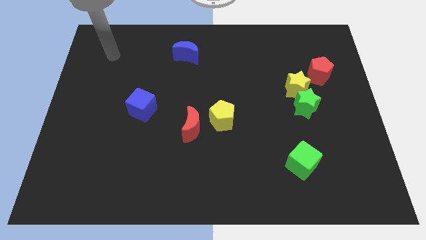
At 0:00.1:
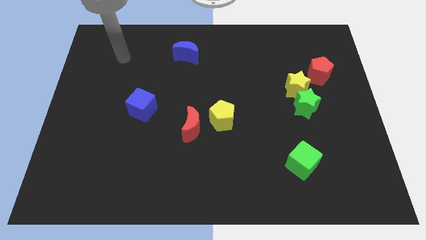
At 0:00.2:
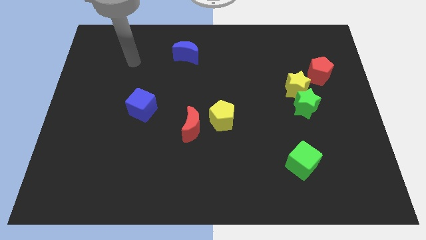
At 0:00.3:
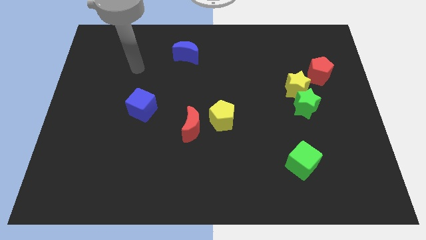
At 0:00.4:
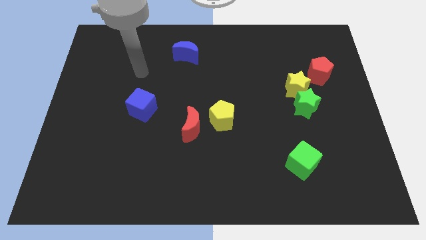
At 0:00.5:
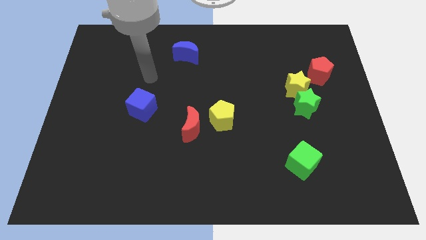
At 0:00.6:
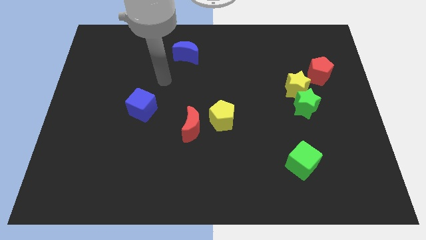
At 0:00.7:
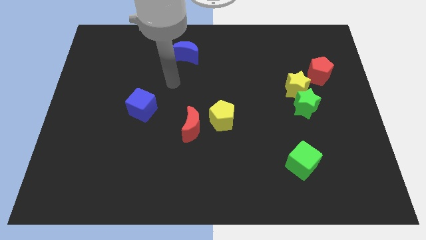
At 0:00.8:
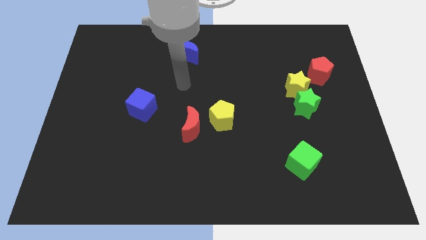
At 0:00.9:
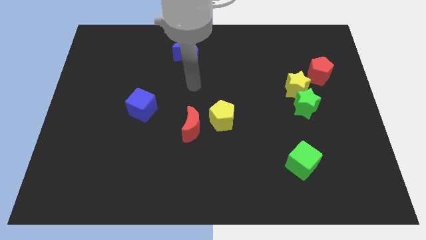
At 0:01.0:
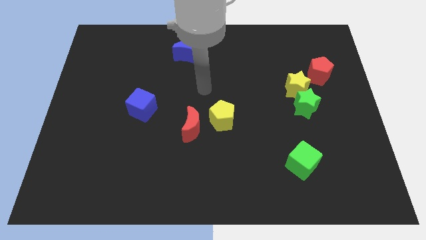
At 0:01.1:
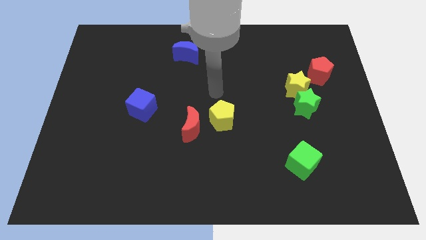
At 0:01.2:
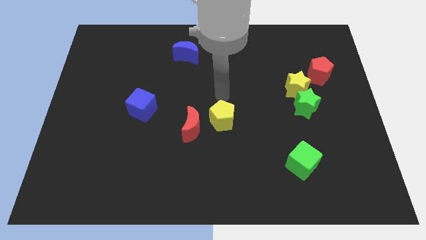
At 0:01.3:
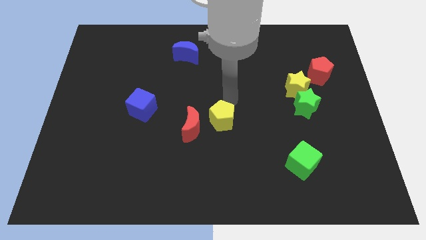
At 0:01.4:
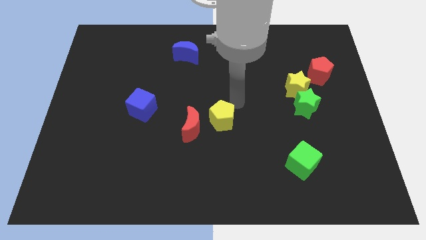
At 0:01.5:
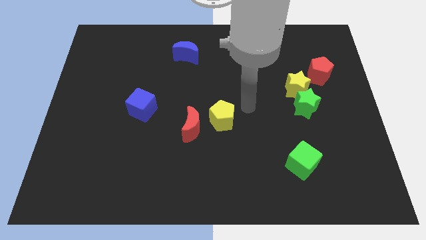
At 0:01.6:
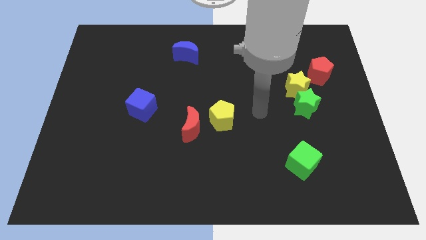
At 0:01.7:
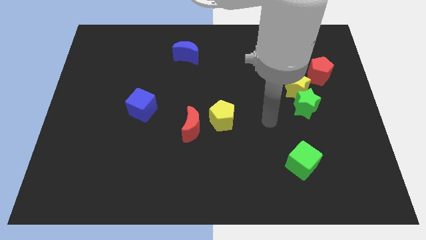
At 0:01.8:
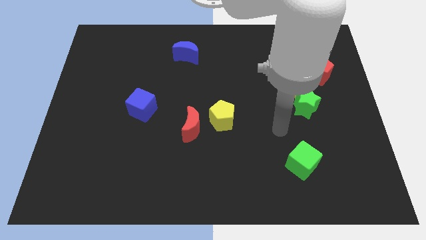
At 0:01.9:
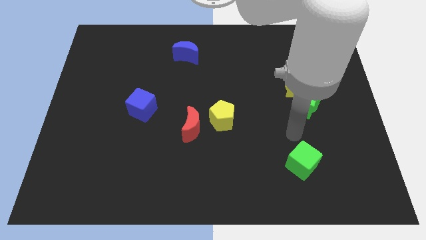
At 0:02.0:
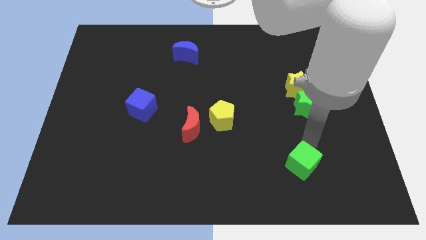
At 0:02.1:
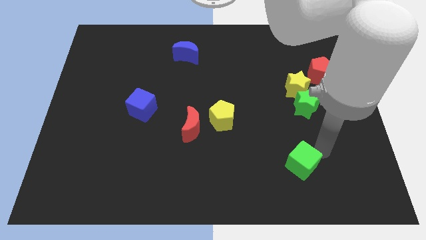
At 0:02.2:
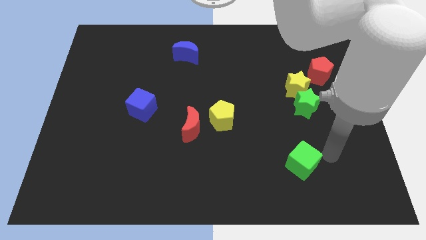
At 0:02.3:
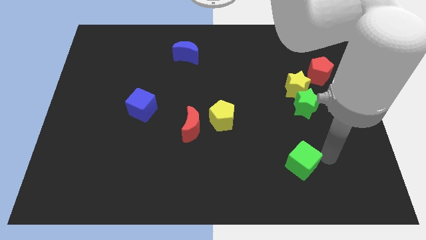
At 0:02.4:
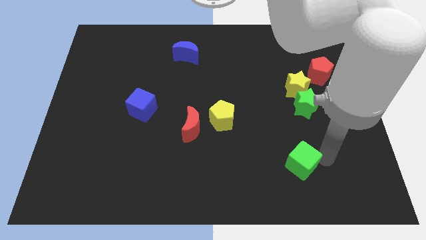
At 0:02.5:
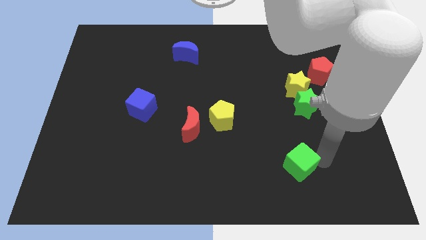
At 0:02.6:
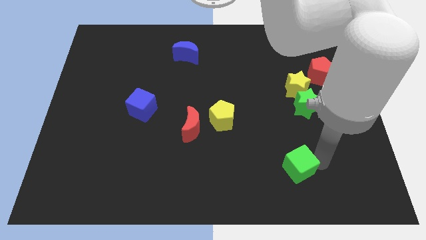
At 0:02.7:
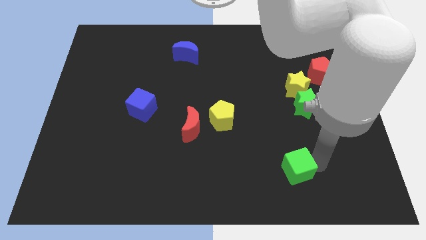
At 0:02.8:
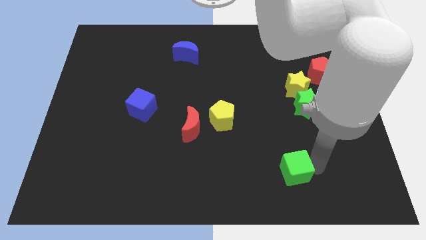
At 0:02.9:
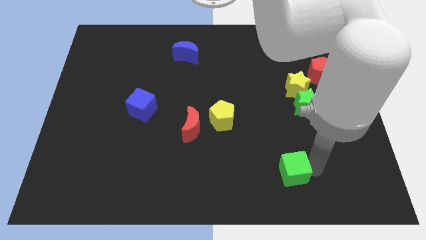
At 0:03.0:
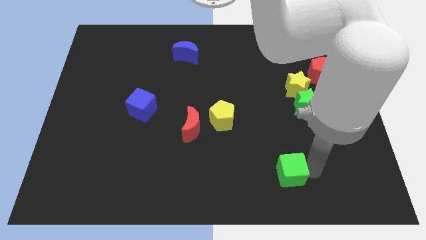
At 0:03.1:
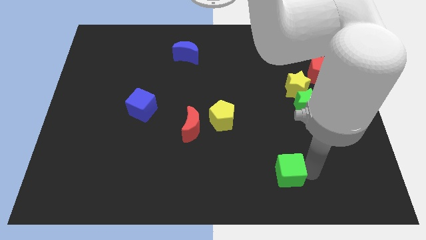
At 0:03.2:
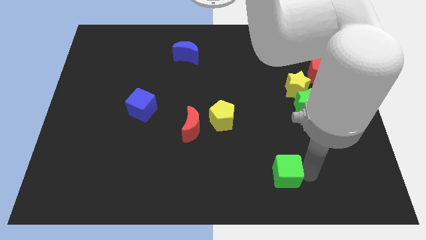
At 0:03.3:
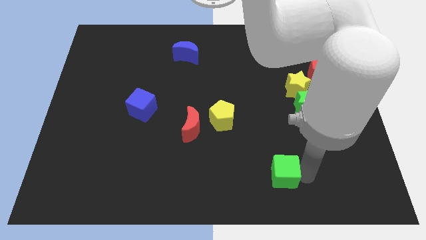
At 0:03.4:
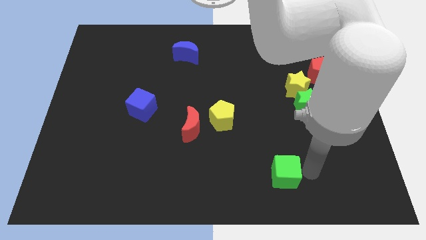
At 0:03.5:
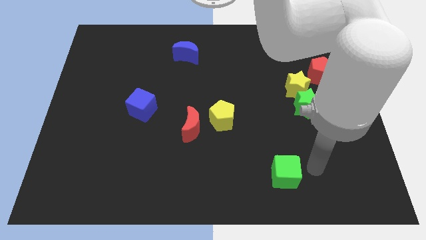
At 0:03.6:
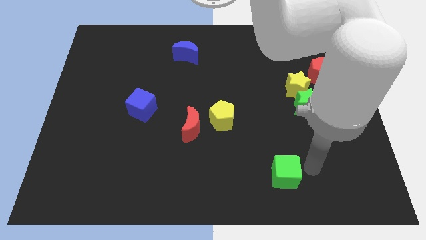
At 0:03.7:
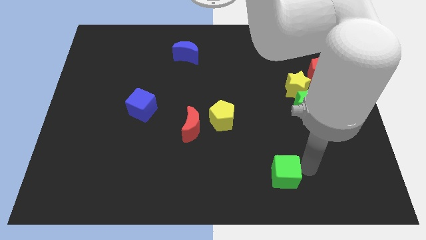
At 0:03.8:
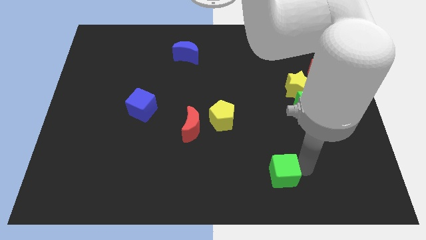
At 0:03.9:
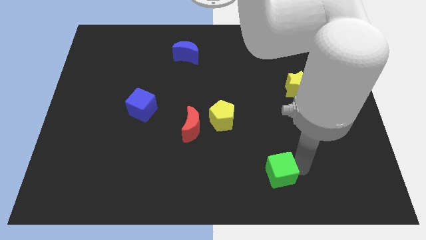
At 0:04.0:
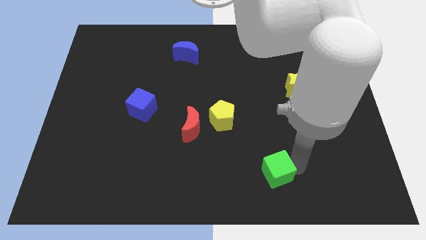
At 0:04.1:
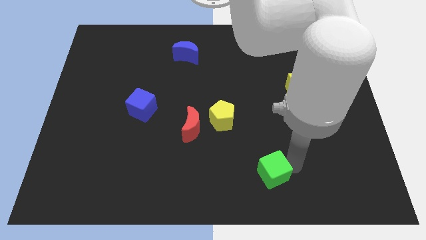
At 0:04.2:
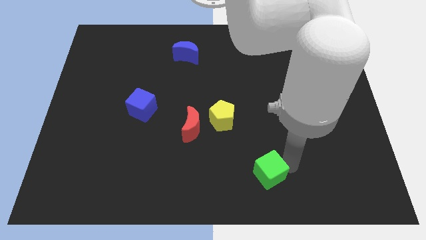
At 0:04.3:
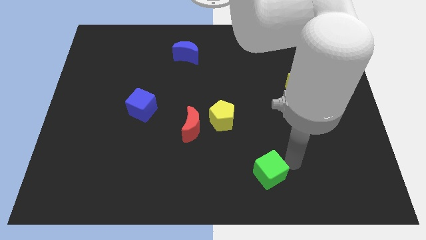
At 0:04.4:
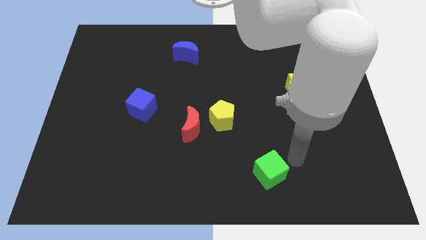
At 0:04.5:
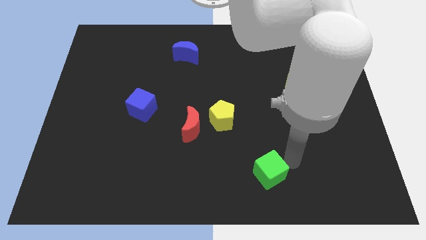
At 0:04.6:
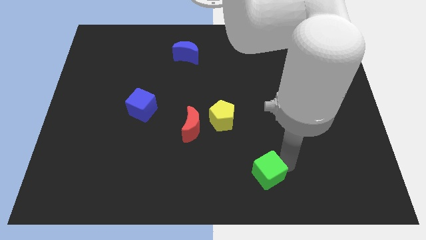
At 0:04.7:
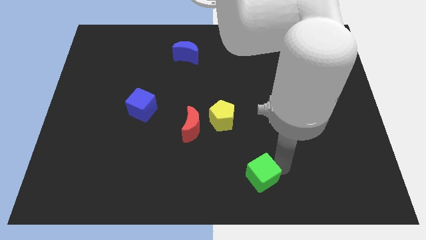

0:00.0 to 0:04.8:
put the green cube to the bottom side

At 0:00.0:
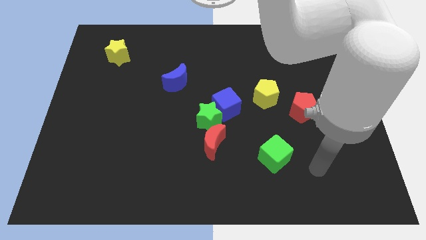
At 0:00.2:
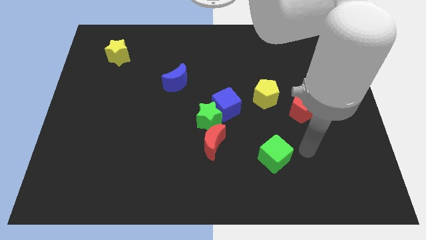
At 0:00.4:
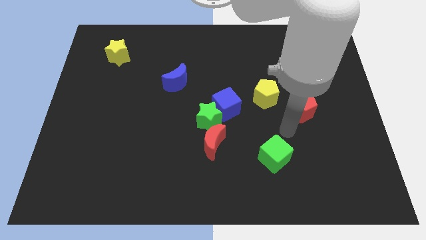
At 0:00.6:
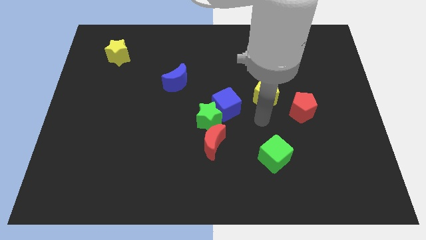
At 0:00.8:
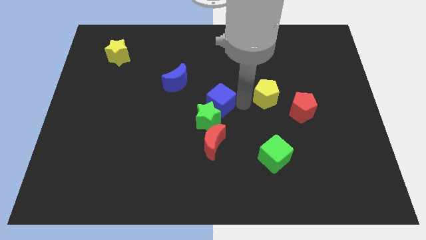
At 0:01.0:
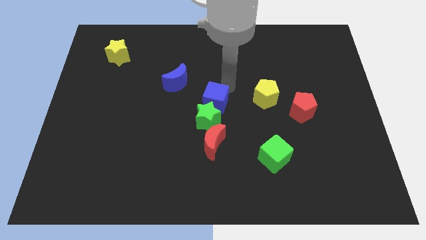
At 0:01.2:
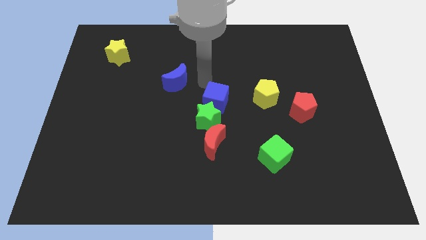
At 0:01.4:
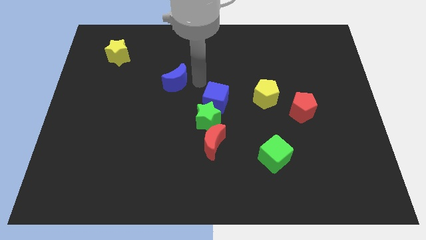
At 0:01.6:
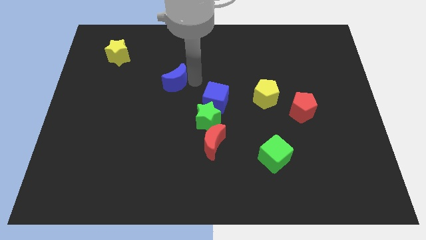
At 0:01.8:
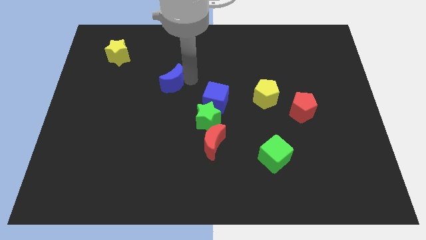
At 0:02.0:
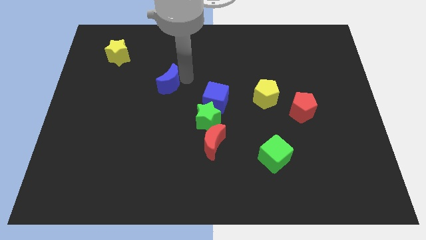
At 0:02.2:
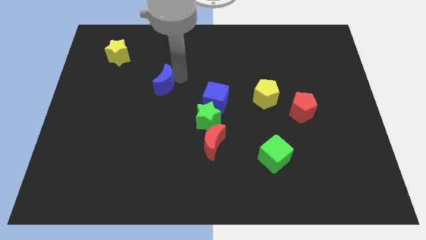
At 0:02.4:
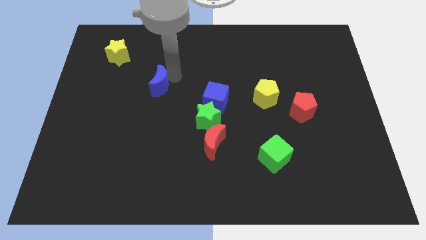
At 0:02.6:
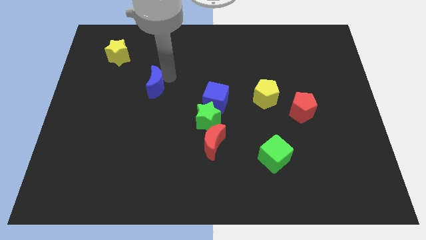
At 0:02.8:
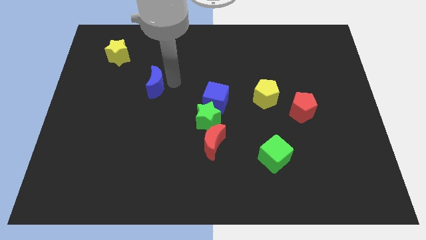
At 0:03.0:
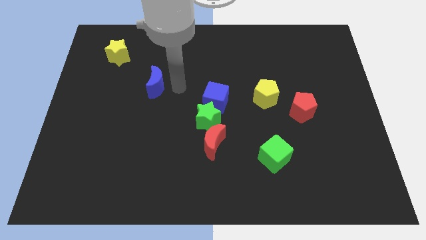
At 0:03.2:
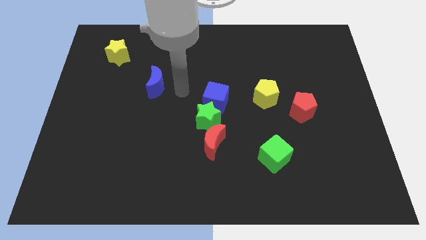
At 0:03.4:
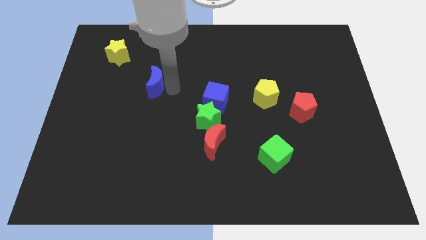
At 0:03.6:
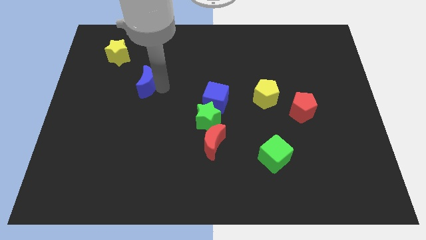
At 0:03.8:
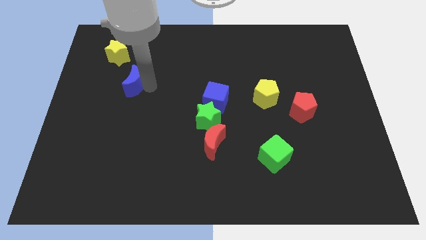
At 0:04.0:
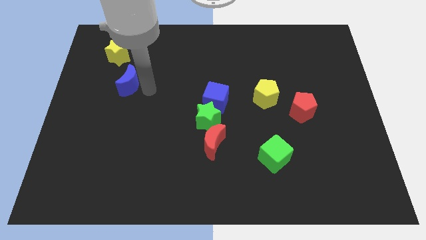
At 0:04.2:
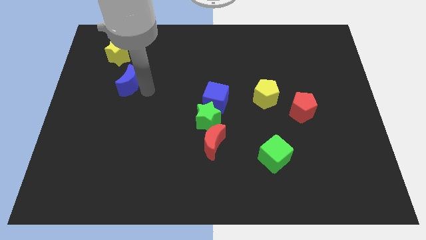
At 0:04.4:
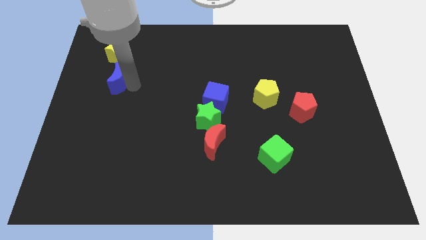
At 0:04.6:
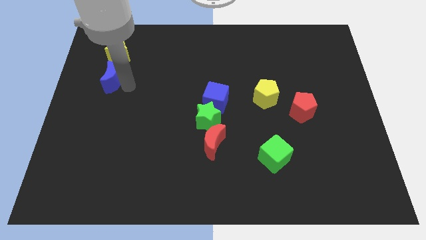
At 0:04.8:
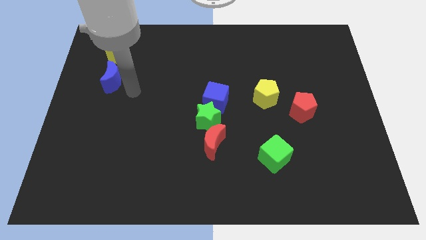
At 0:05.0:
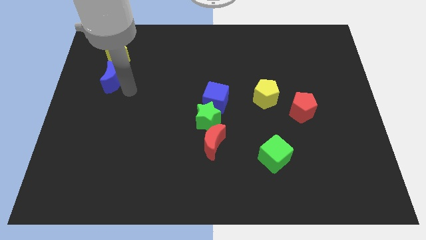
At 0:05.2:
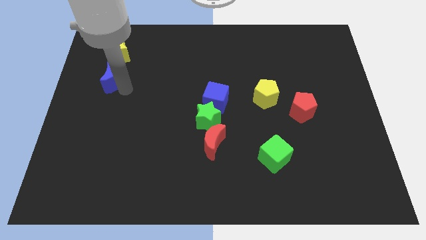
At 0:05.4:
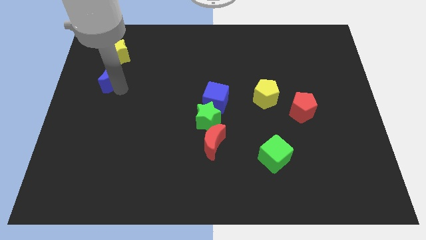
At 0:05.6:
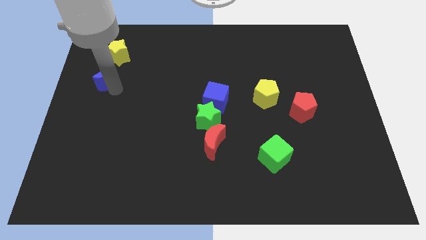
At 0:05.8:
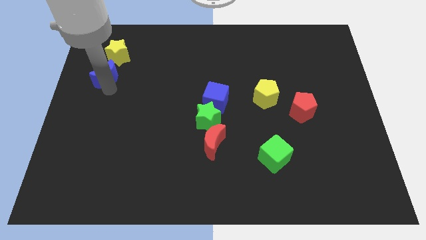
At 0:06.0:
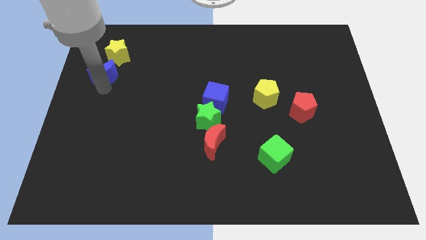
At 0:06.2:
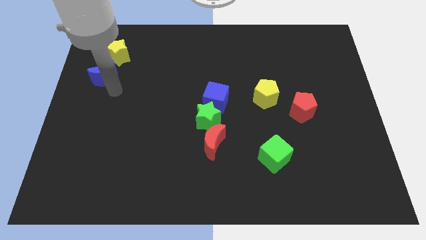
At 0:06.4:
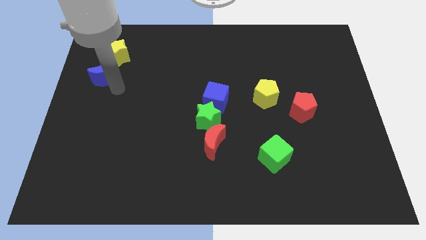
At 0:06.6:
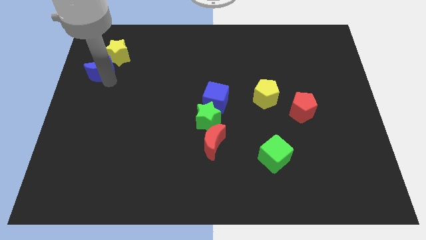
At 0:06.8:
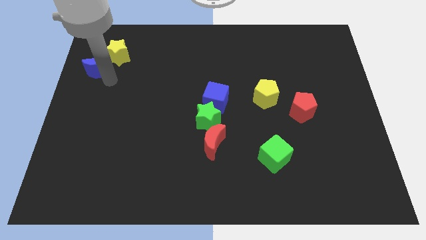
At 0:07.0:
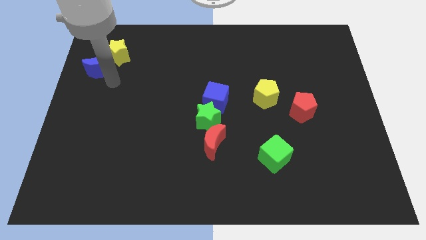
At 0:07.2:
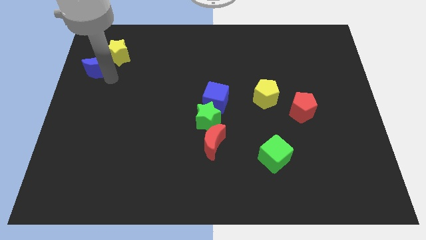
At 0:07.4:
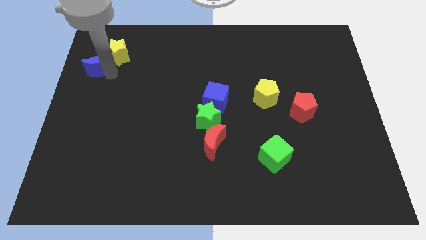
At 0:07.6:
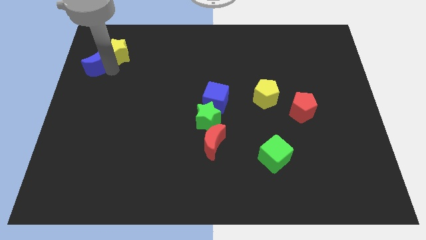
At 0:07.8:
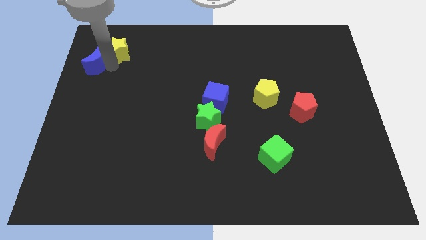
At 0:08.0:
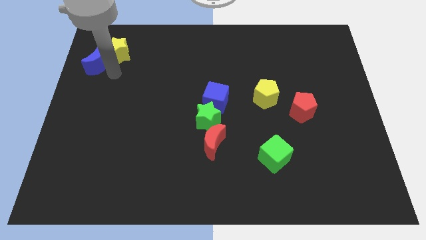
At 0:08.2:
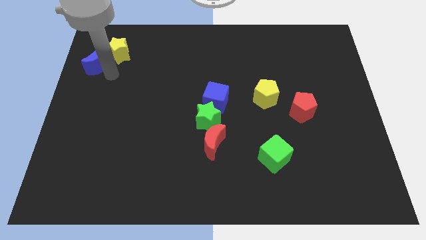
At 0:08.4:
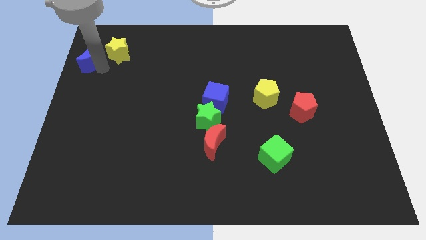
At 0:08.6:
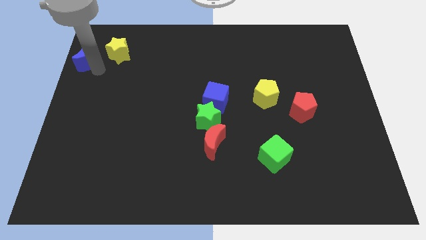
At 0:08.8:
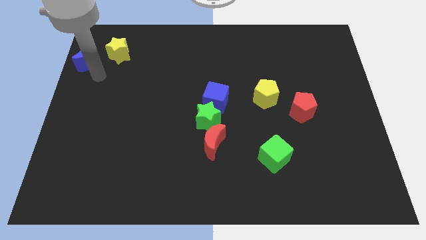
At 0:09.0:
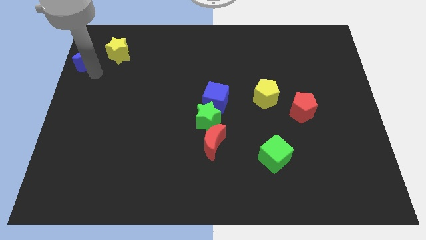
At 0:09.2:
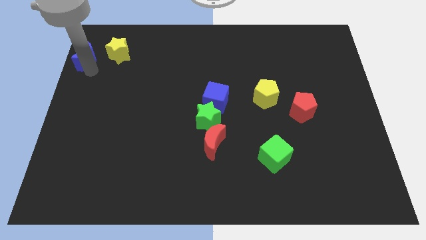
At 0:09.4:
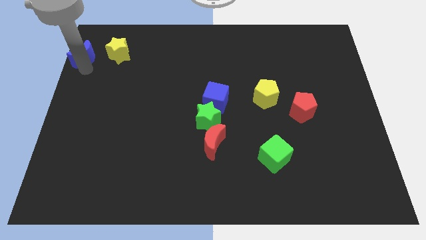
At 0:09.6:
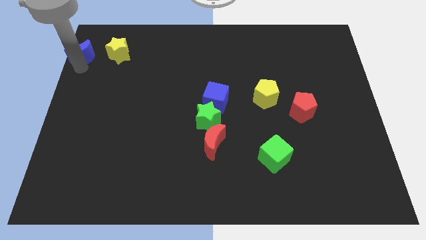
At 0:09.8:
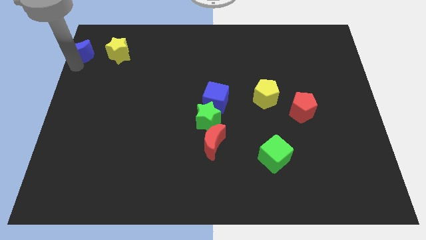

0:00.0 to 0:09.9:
put the blue moon to the upper left corner
